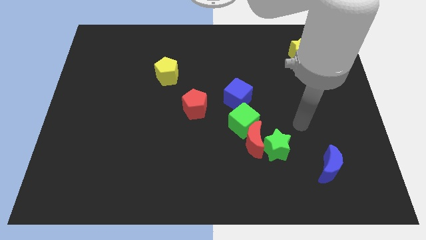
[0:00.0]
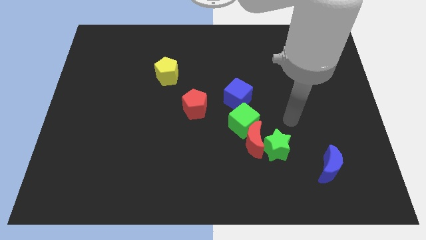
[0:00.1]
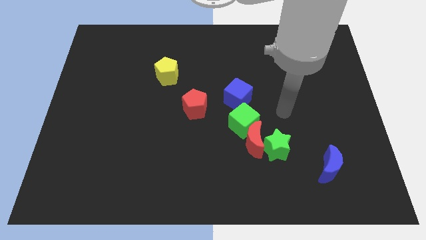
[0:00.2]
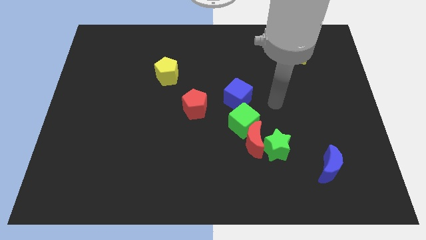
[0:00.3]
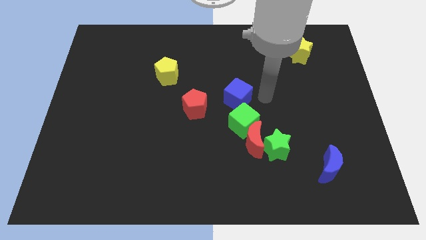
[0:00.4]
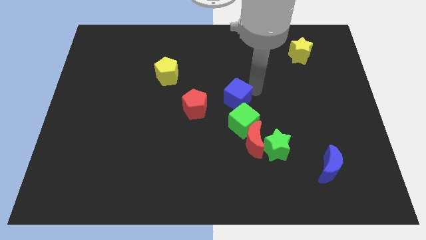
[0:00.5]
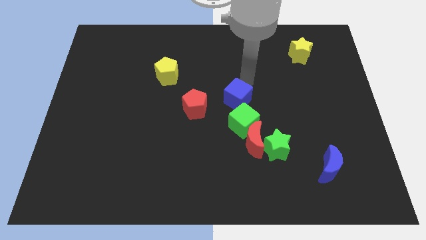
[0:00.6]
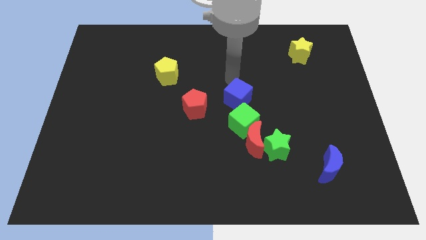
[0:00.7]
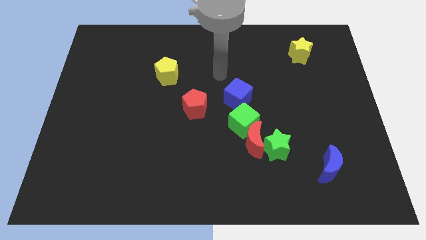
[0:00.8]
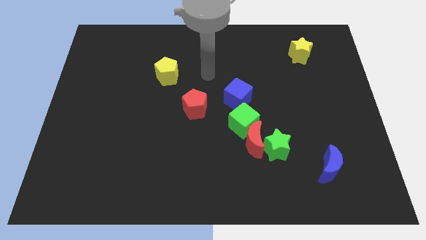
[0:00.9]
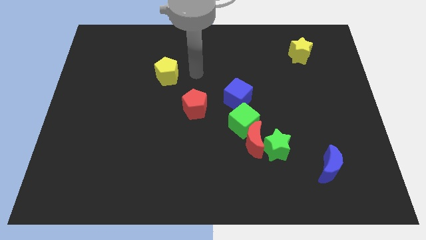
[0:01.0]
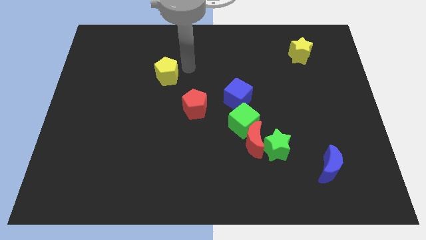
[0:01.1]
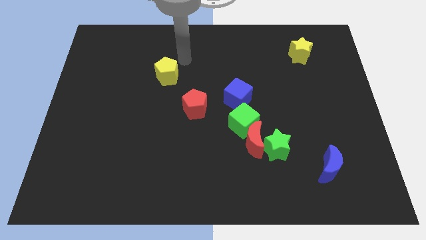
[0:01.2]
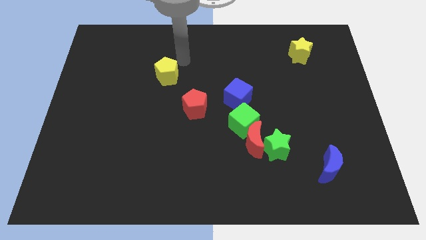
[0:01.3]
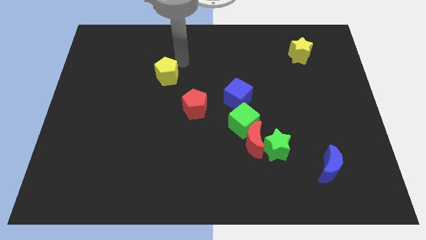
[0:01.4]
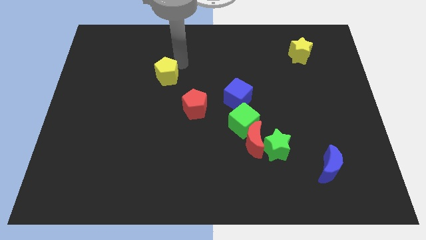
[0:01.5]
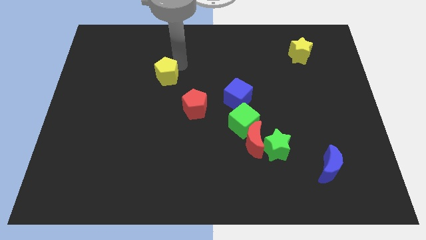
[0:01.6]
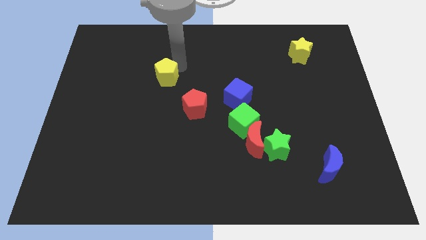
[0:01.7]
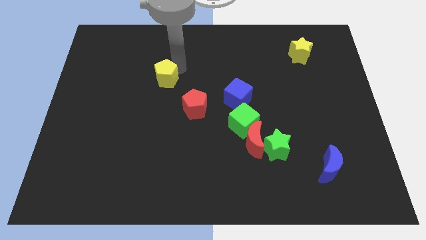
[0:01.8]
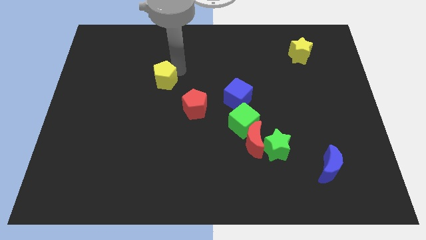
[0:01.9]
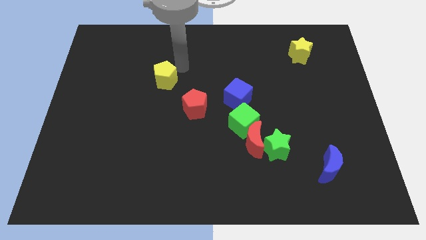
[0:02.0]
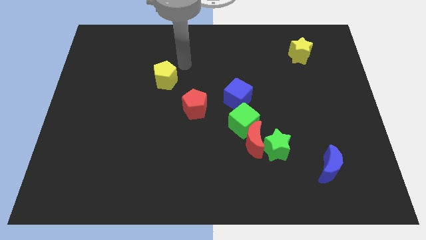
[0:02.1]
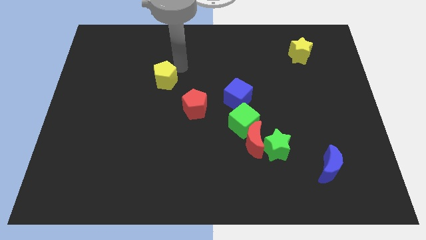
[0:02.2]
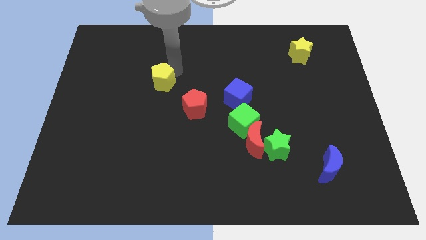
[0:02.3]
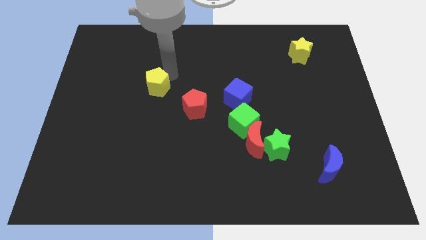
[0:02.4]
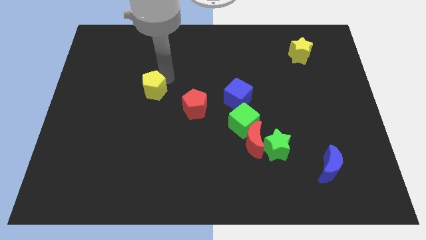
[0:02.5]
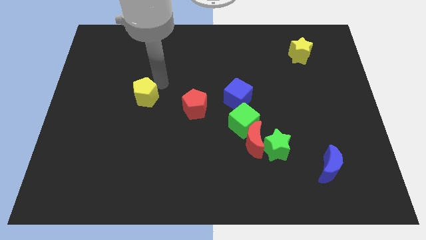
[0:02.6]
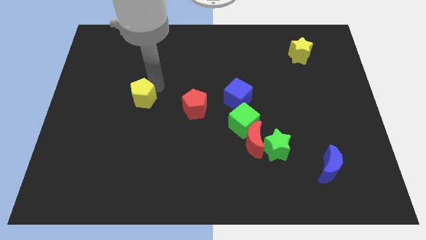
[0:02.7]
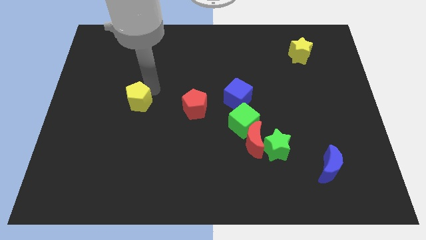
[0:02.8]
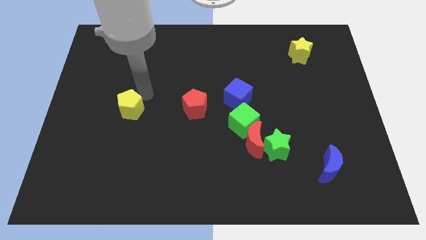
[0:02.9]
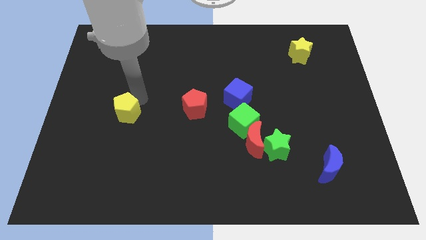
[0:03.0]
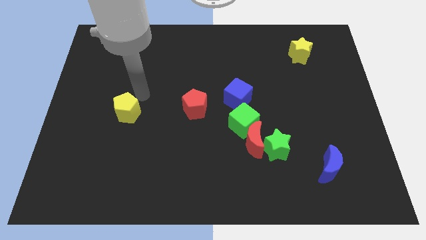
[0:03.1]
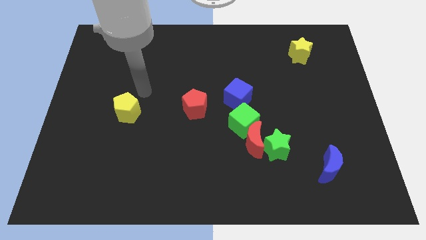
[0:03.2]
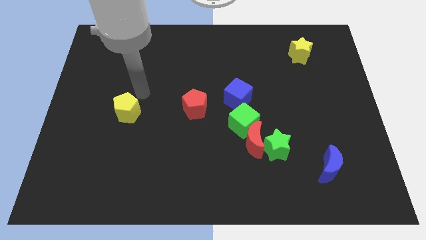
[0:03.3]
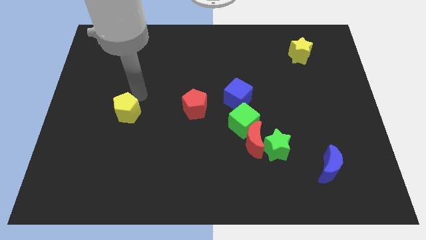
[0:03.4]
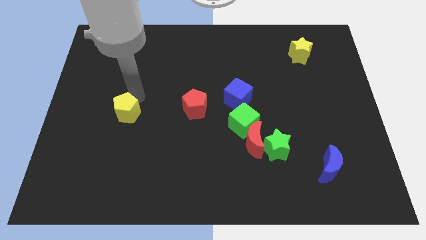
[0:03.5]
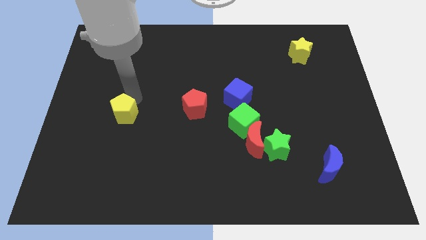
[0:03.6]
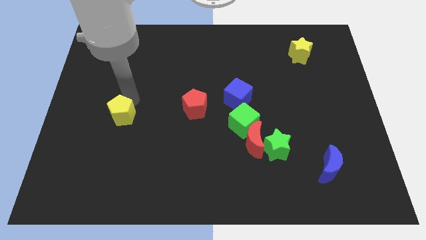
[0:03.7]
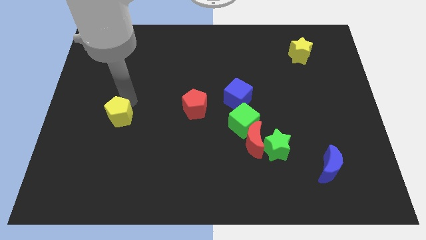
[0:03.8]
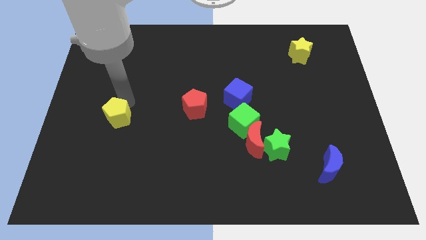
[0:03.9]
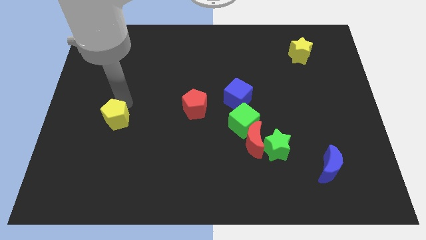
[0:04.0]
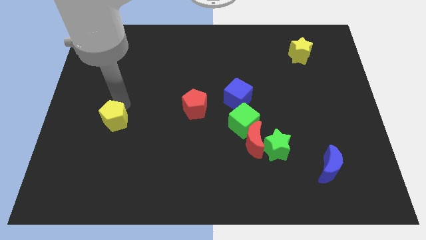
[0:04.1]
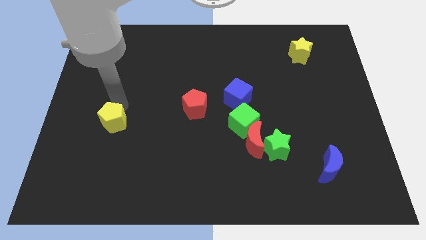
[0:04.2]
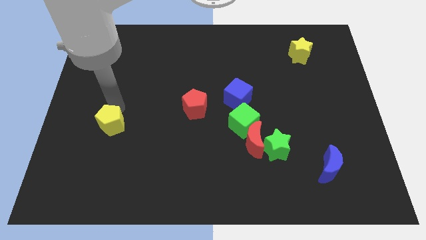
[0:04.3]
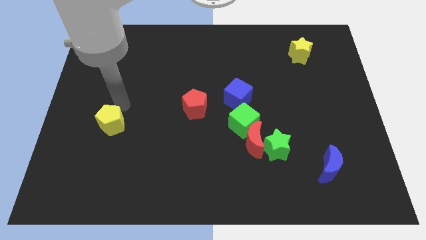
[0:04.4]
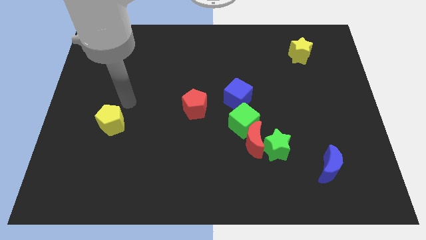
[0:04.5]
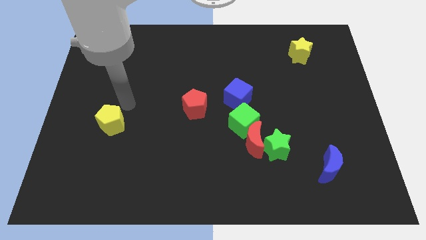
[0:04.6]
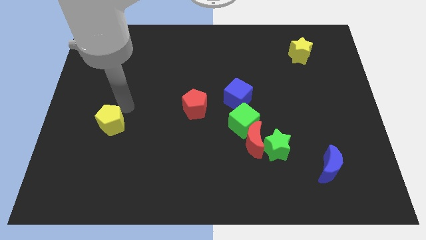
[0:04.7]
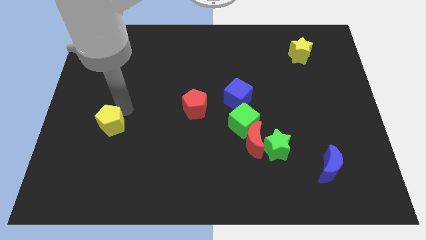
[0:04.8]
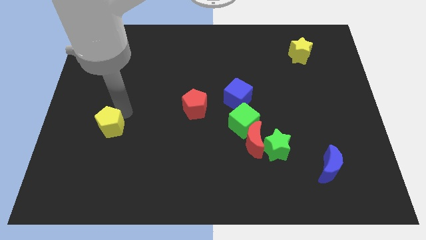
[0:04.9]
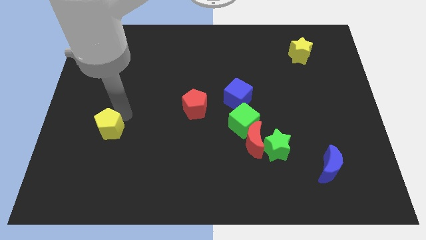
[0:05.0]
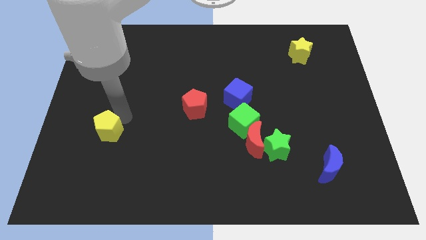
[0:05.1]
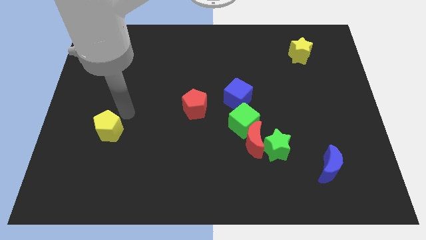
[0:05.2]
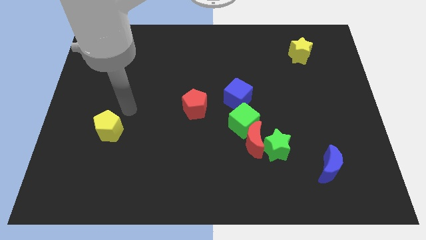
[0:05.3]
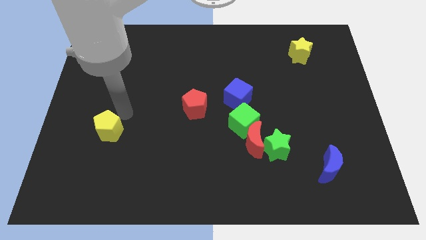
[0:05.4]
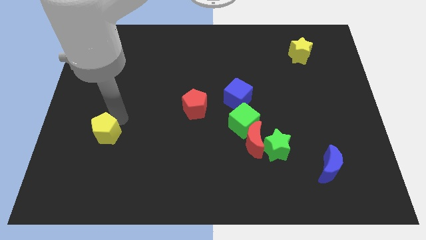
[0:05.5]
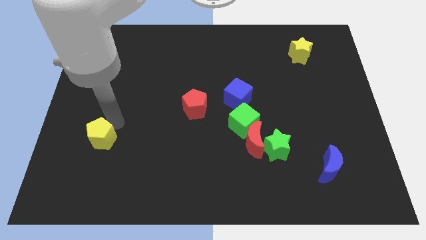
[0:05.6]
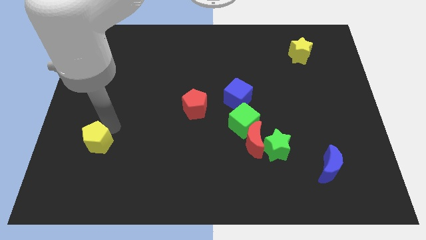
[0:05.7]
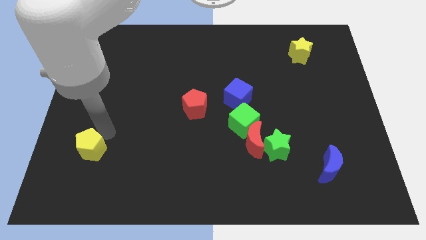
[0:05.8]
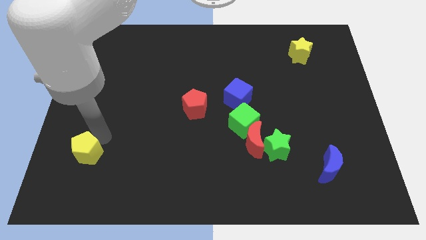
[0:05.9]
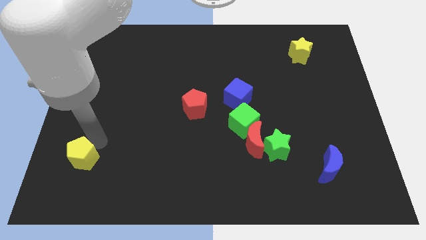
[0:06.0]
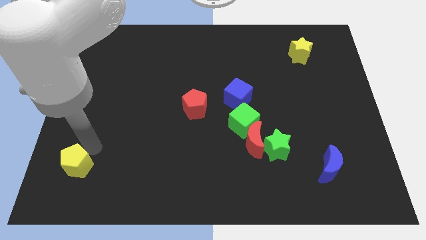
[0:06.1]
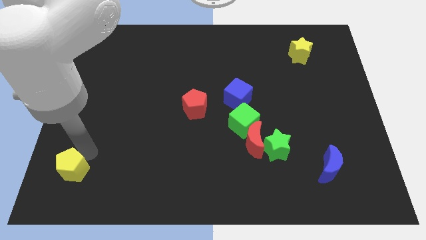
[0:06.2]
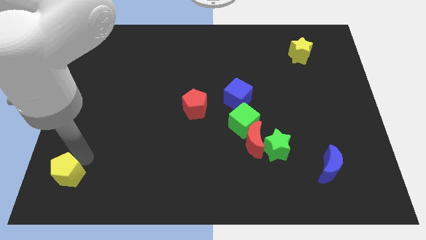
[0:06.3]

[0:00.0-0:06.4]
put the yellow pentagon to the lower left corner

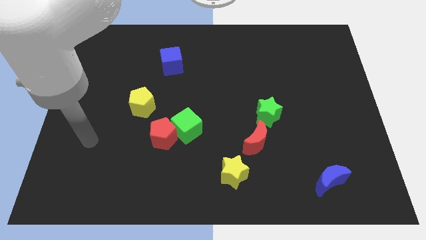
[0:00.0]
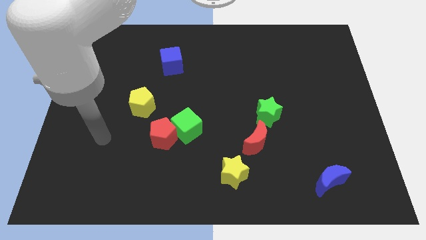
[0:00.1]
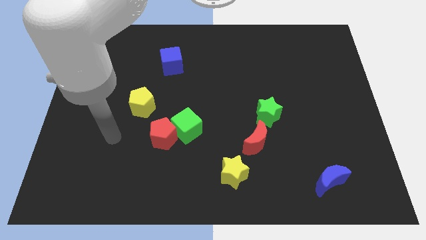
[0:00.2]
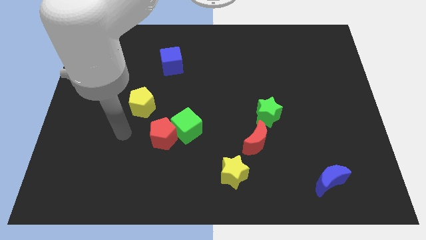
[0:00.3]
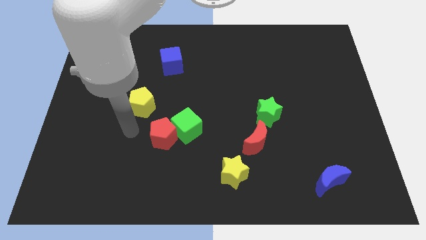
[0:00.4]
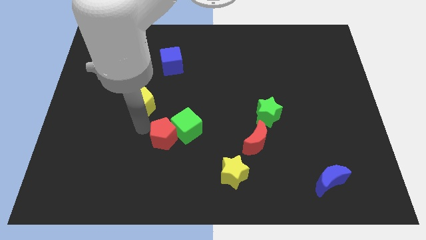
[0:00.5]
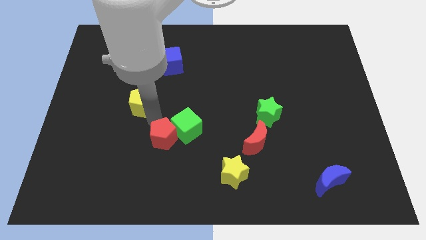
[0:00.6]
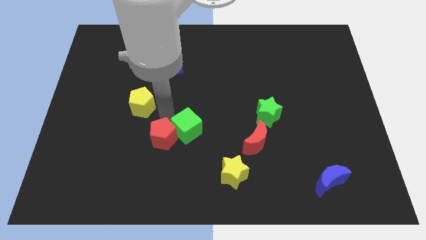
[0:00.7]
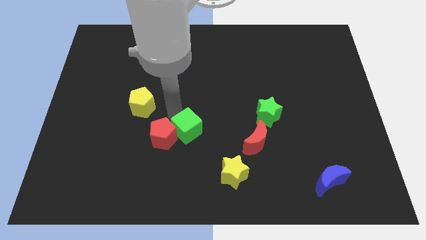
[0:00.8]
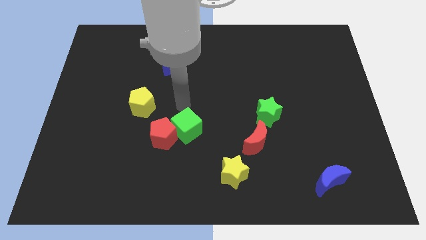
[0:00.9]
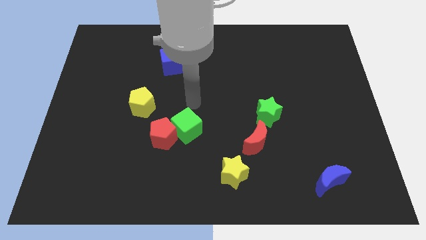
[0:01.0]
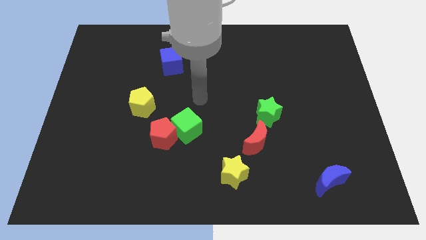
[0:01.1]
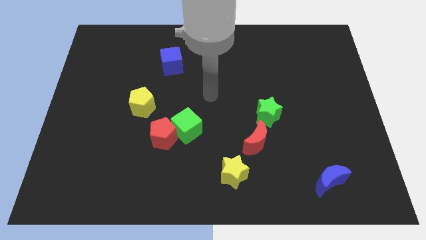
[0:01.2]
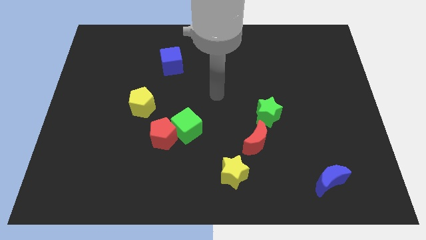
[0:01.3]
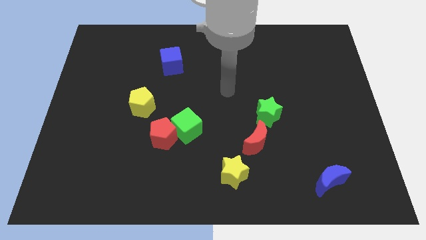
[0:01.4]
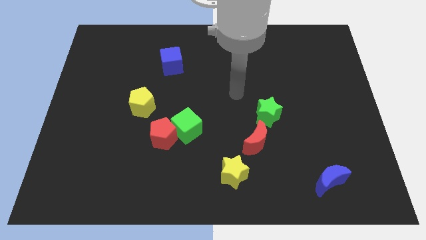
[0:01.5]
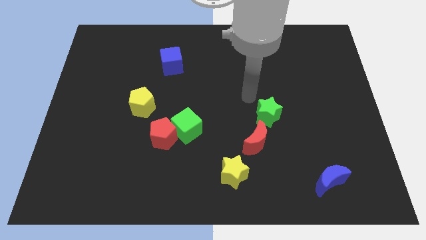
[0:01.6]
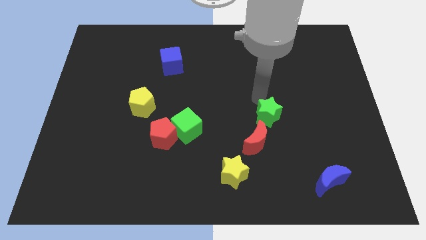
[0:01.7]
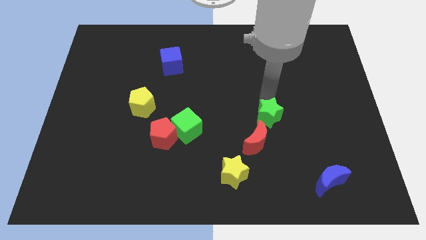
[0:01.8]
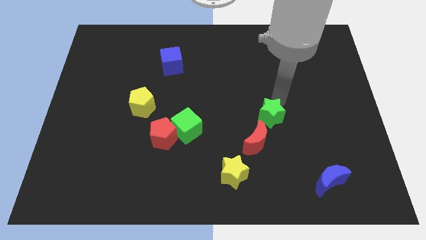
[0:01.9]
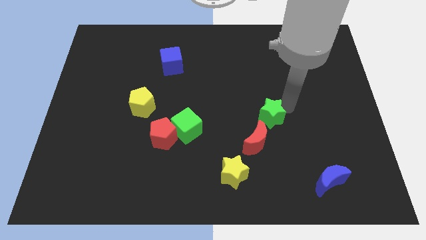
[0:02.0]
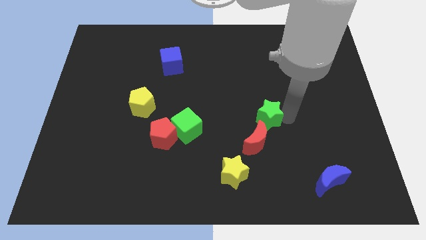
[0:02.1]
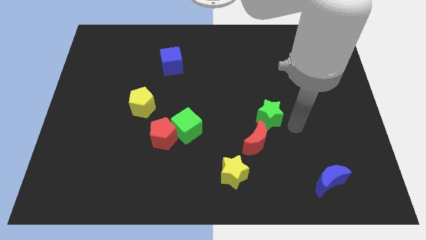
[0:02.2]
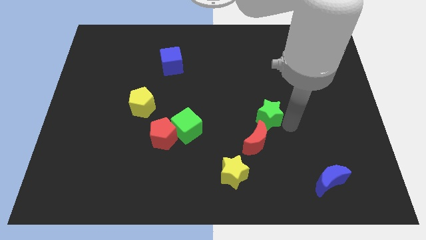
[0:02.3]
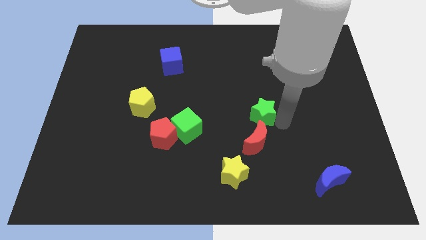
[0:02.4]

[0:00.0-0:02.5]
slide the green star to the center
